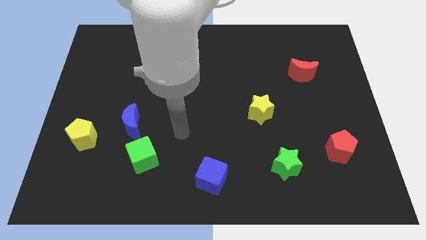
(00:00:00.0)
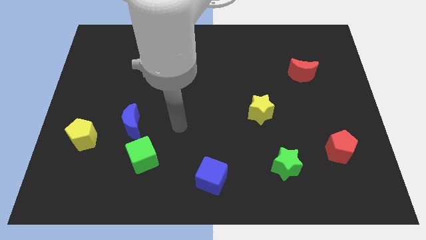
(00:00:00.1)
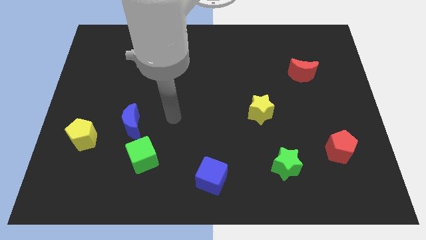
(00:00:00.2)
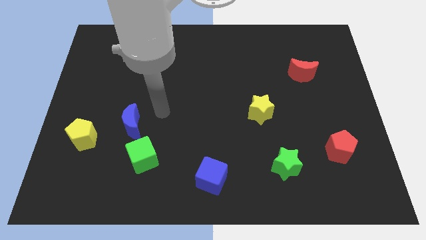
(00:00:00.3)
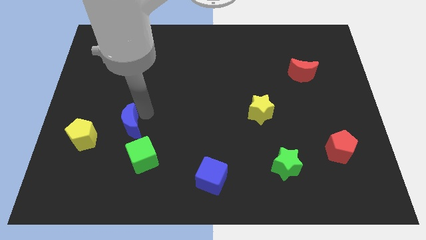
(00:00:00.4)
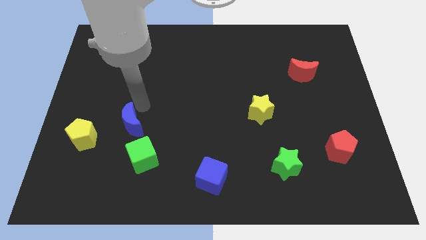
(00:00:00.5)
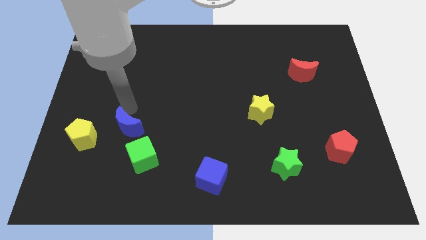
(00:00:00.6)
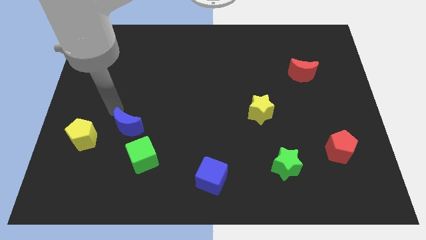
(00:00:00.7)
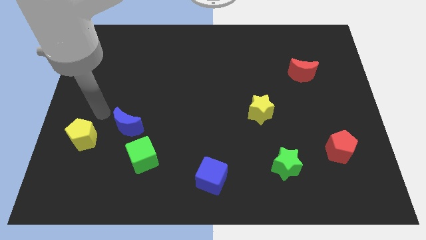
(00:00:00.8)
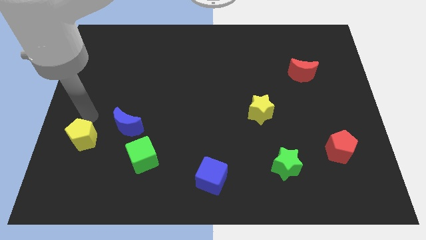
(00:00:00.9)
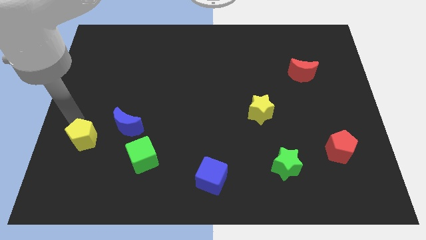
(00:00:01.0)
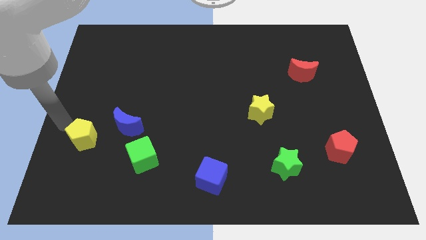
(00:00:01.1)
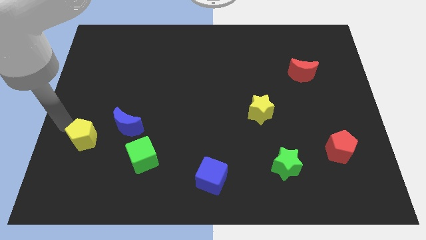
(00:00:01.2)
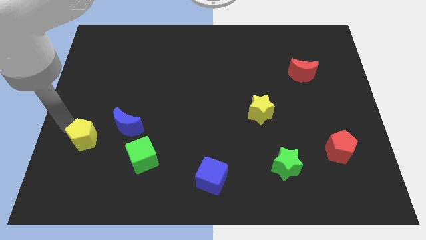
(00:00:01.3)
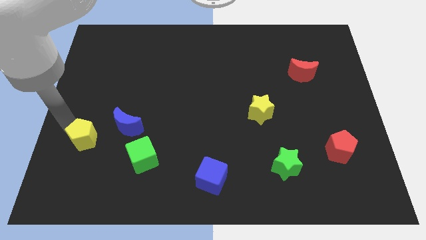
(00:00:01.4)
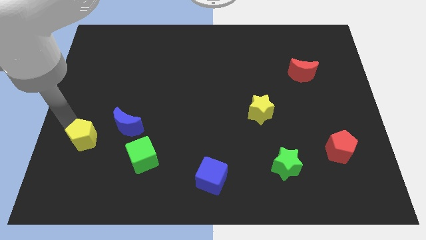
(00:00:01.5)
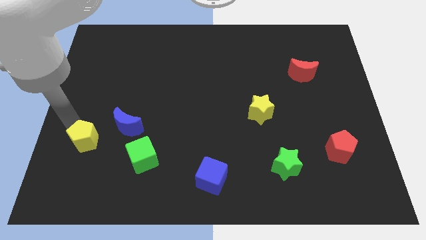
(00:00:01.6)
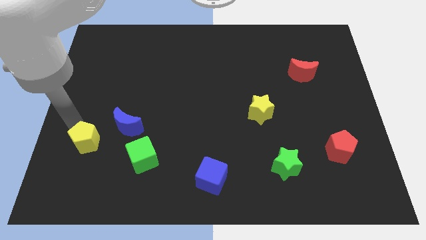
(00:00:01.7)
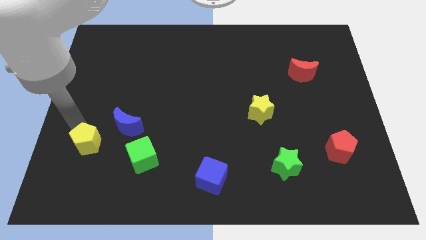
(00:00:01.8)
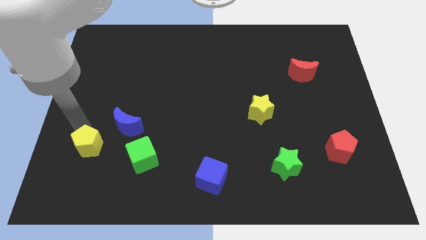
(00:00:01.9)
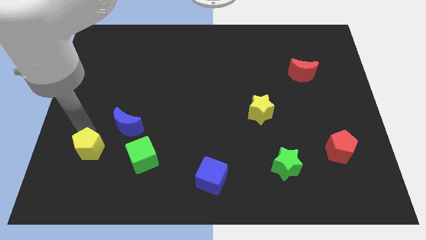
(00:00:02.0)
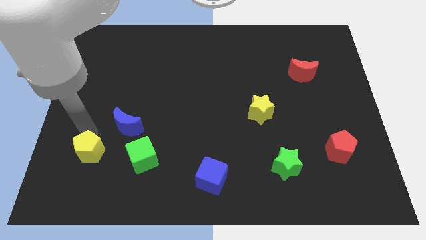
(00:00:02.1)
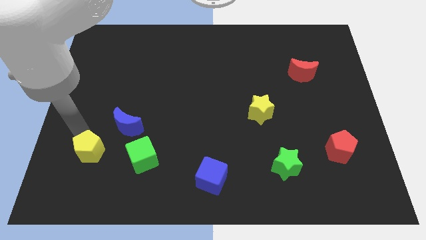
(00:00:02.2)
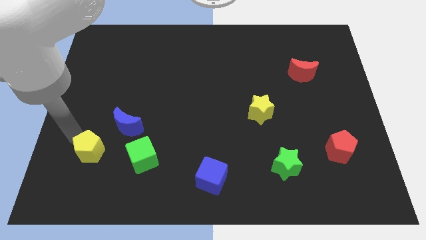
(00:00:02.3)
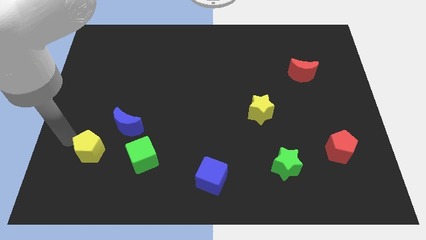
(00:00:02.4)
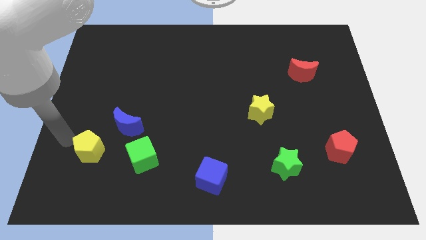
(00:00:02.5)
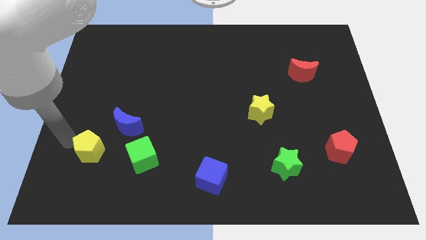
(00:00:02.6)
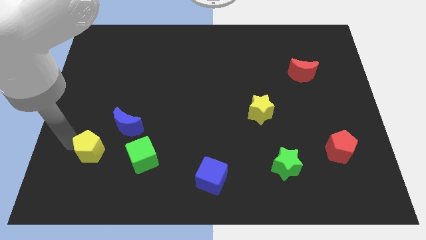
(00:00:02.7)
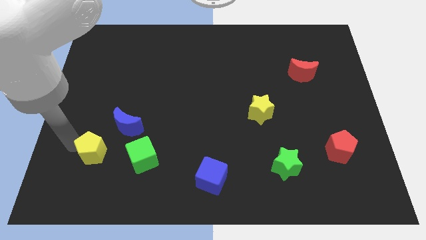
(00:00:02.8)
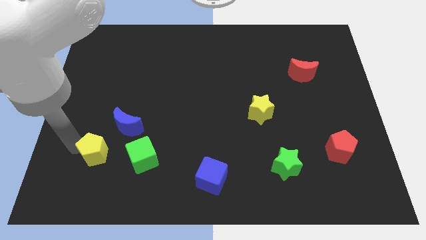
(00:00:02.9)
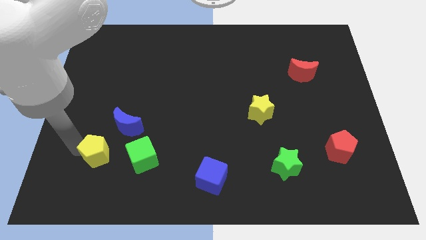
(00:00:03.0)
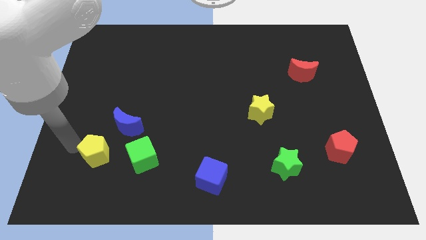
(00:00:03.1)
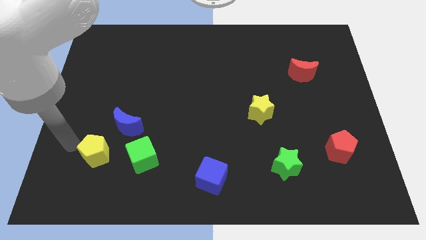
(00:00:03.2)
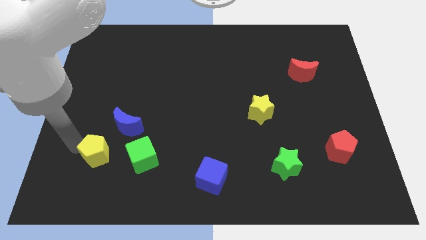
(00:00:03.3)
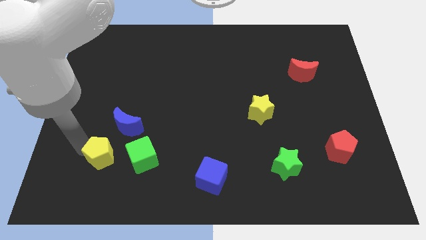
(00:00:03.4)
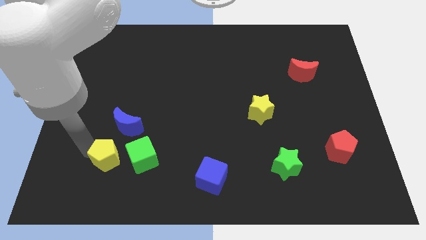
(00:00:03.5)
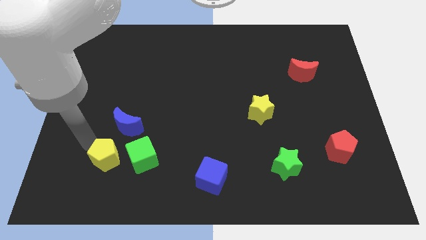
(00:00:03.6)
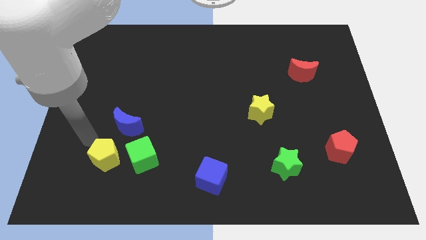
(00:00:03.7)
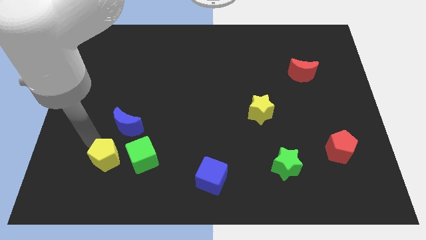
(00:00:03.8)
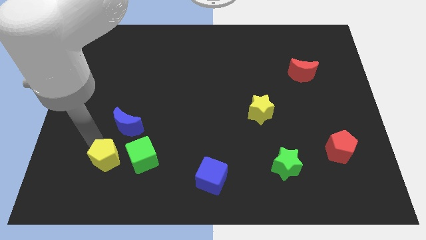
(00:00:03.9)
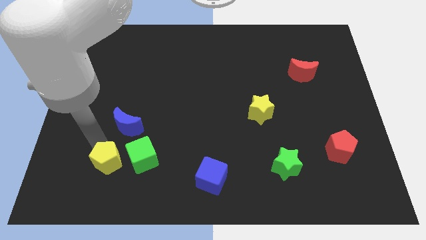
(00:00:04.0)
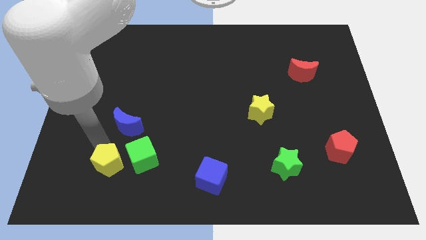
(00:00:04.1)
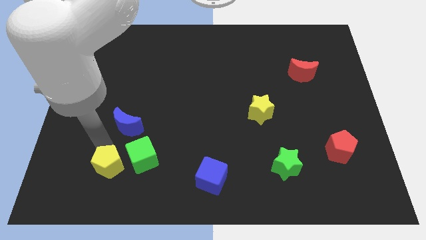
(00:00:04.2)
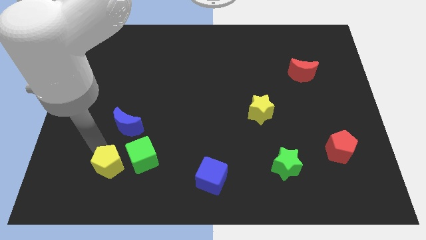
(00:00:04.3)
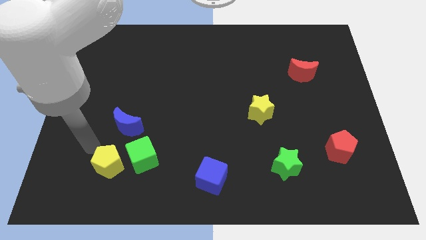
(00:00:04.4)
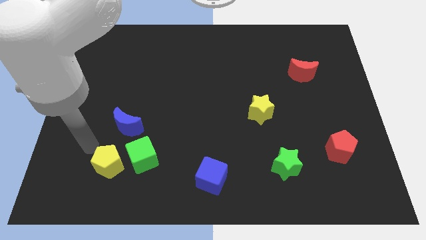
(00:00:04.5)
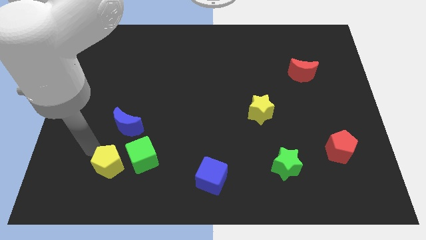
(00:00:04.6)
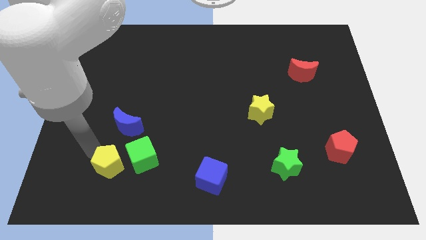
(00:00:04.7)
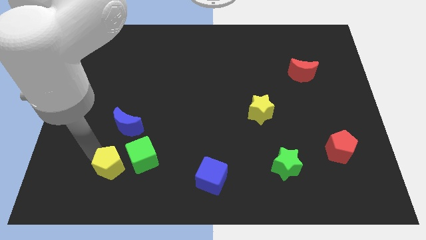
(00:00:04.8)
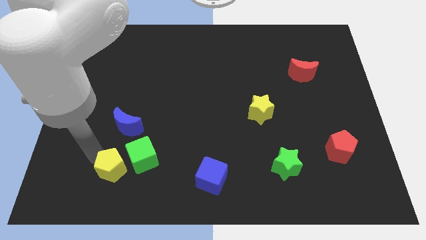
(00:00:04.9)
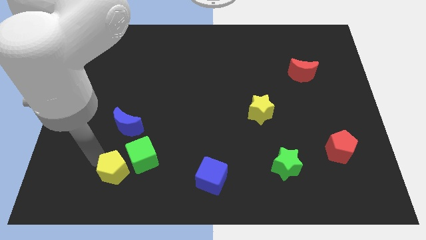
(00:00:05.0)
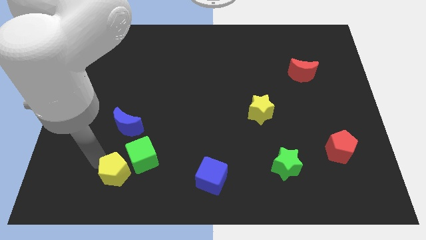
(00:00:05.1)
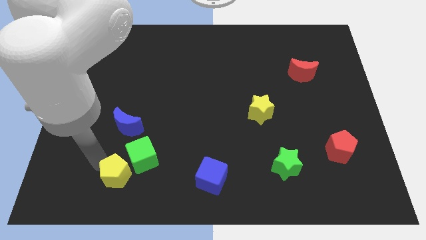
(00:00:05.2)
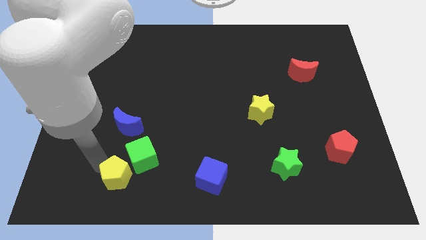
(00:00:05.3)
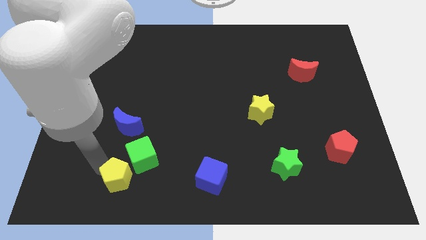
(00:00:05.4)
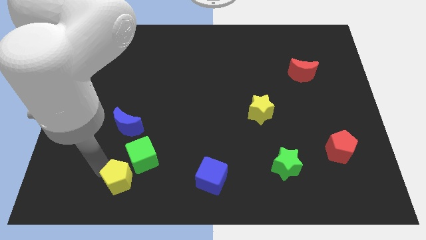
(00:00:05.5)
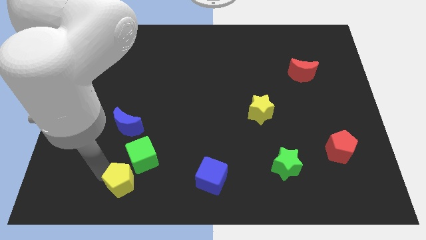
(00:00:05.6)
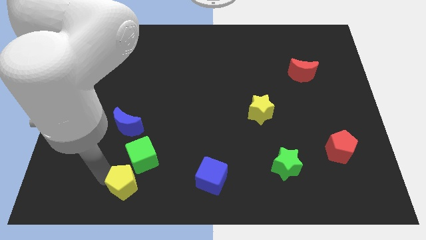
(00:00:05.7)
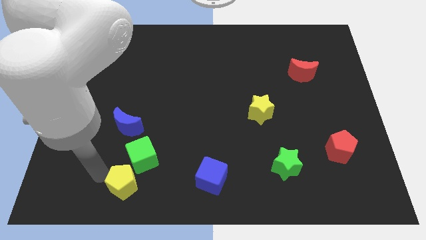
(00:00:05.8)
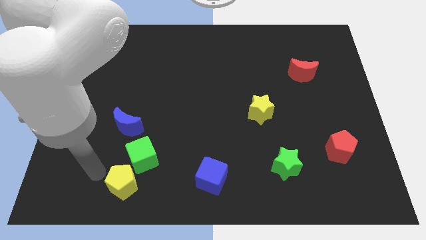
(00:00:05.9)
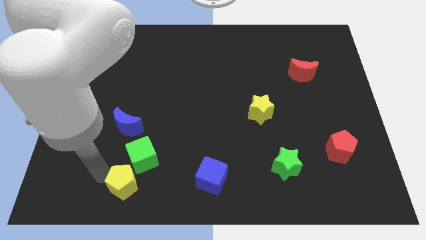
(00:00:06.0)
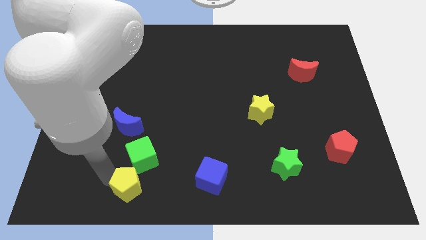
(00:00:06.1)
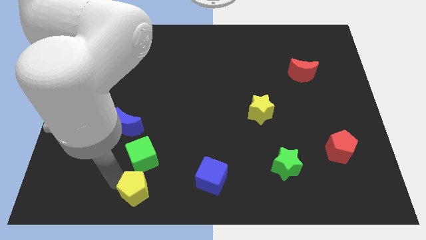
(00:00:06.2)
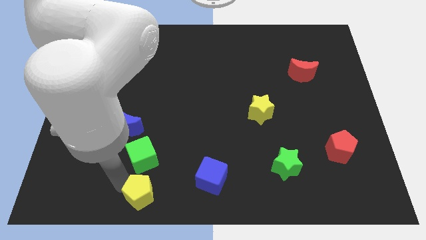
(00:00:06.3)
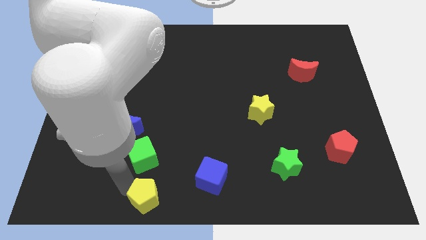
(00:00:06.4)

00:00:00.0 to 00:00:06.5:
move the yellow pentagon to the bottom side
